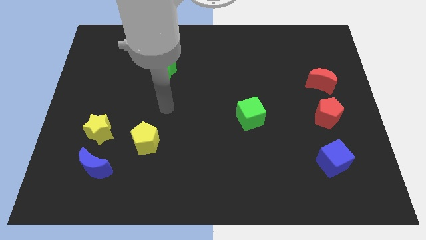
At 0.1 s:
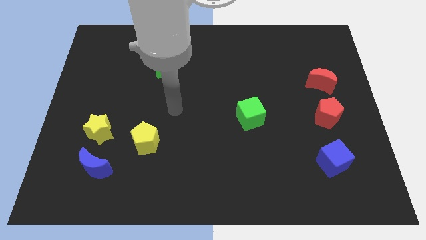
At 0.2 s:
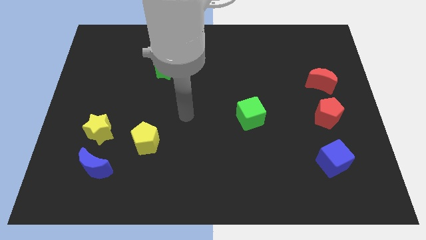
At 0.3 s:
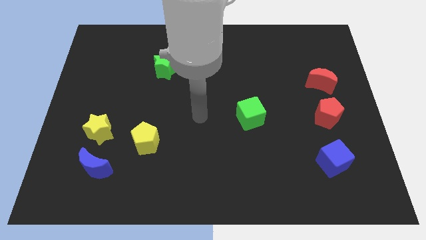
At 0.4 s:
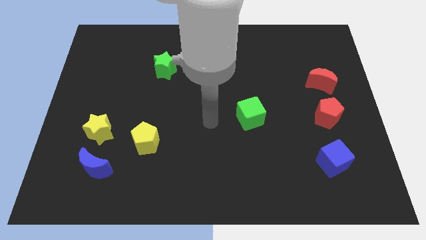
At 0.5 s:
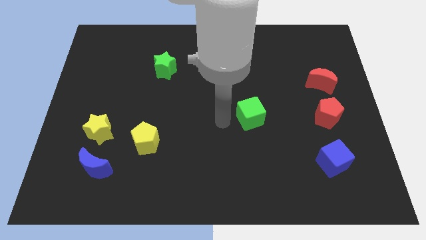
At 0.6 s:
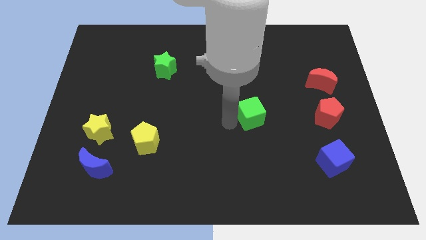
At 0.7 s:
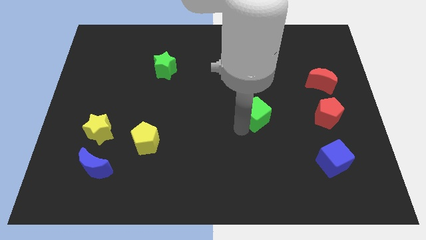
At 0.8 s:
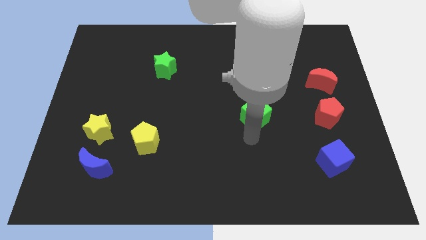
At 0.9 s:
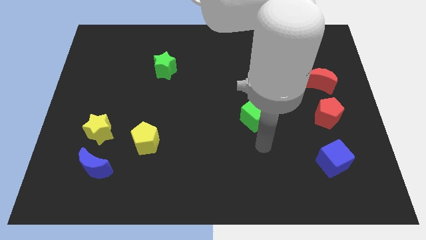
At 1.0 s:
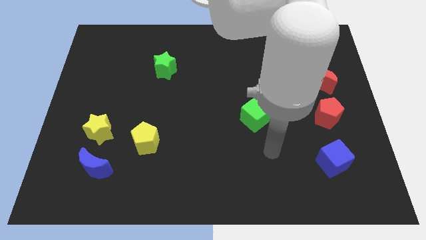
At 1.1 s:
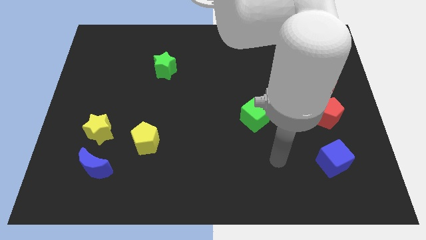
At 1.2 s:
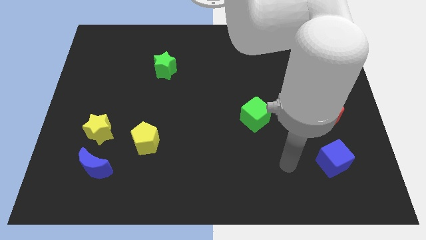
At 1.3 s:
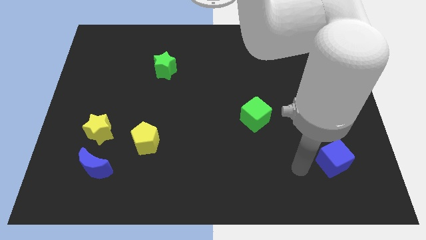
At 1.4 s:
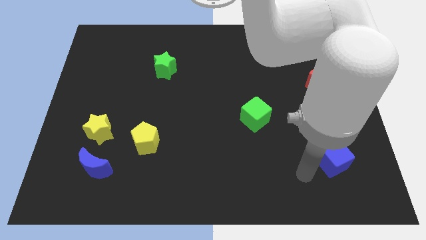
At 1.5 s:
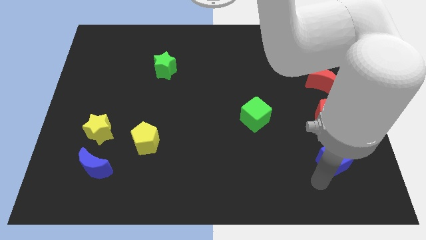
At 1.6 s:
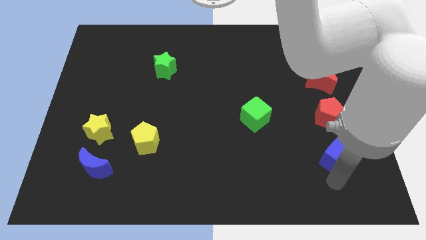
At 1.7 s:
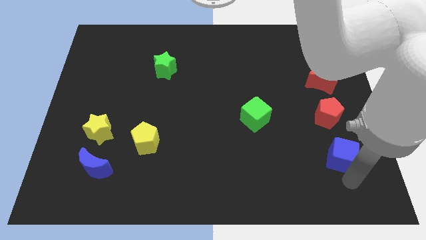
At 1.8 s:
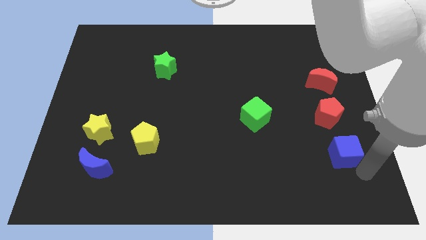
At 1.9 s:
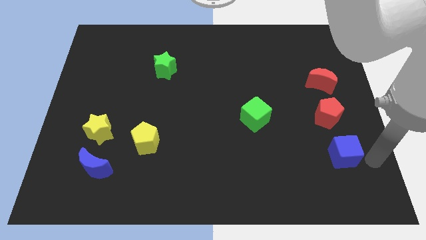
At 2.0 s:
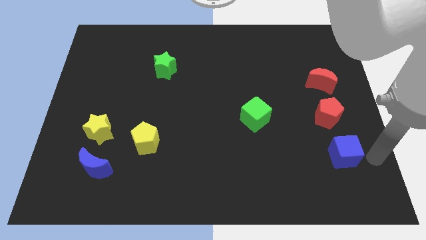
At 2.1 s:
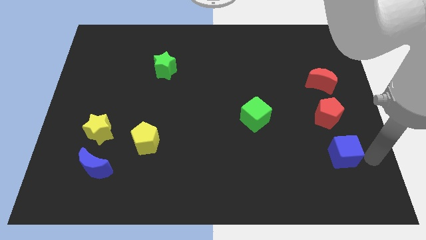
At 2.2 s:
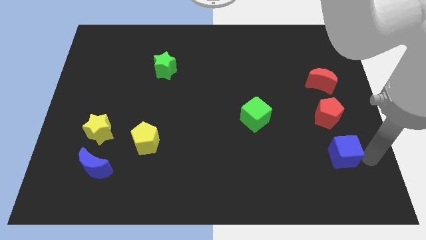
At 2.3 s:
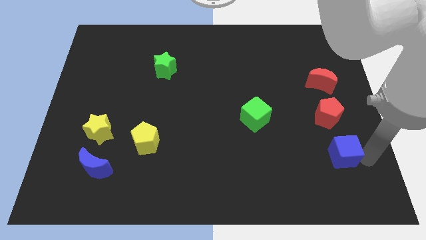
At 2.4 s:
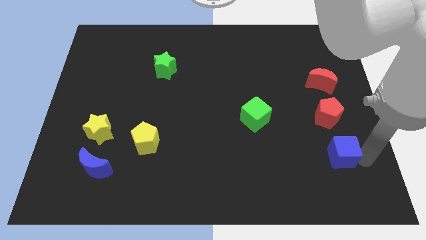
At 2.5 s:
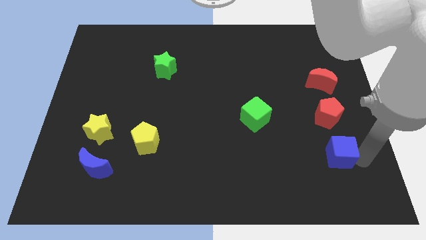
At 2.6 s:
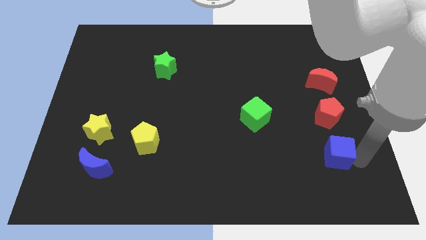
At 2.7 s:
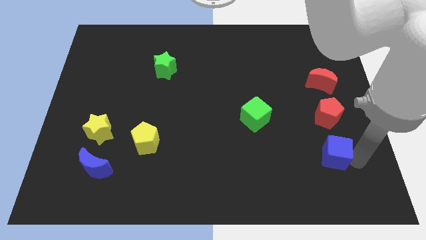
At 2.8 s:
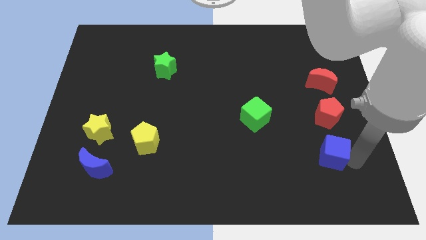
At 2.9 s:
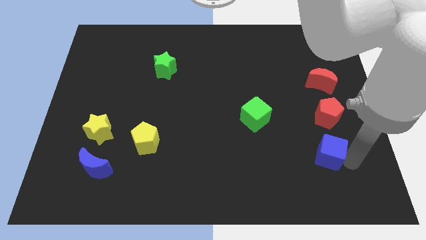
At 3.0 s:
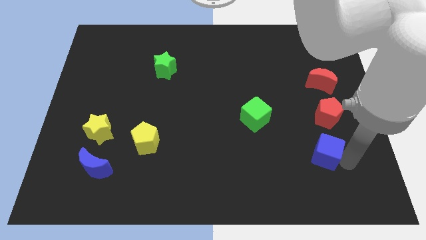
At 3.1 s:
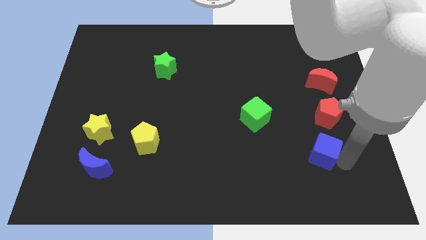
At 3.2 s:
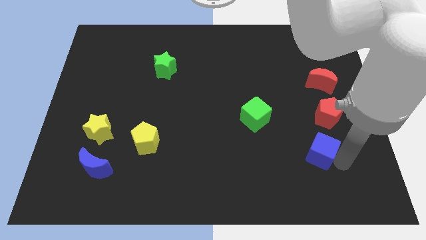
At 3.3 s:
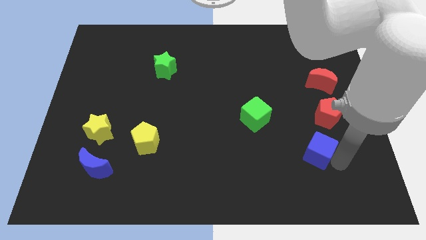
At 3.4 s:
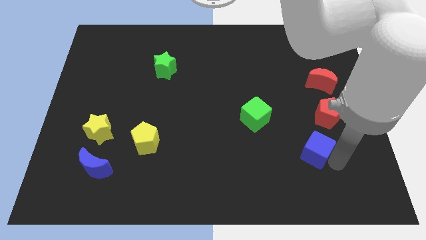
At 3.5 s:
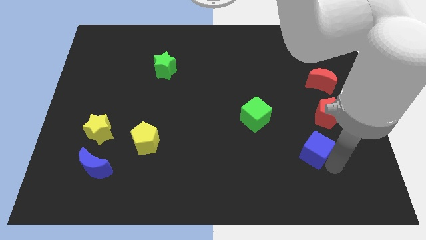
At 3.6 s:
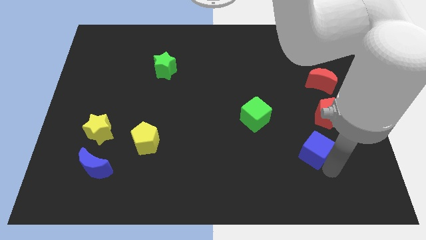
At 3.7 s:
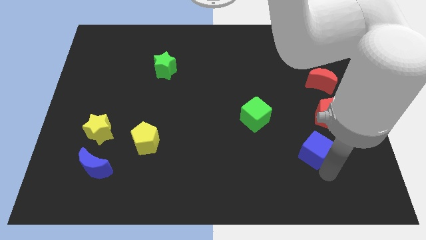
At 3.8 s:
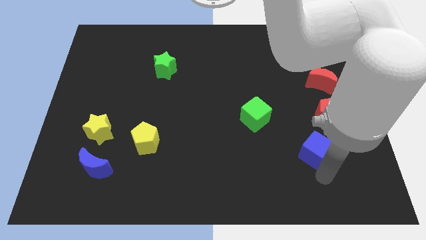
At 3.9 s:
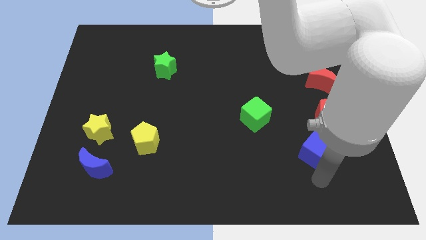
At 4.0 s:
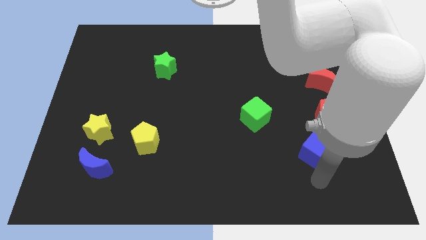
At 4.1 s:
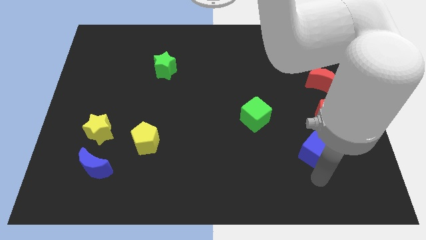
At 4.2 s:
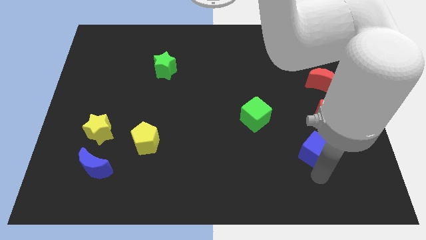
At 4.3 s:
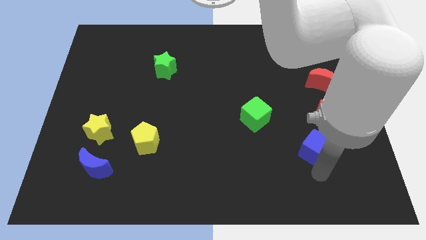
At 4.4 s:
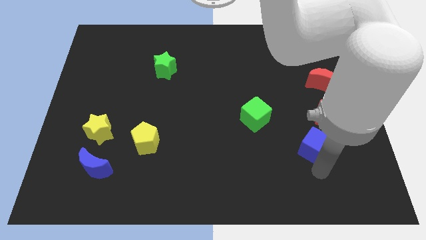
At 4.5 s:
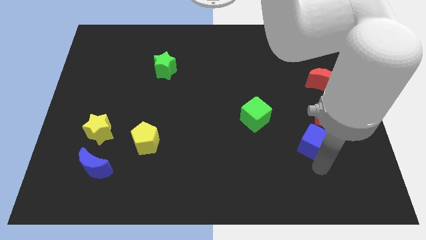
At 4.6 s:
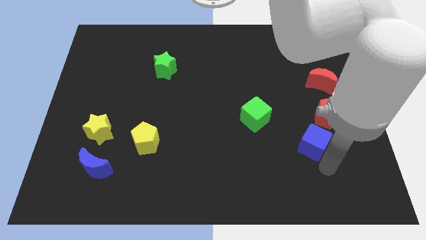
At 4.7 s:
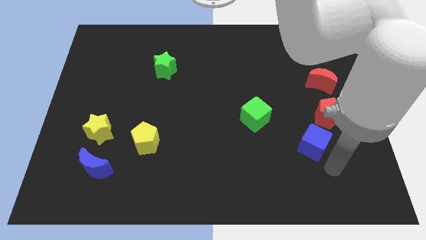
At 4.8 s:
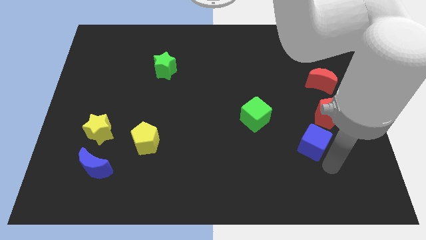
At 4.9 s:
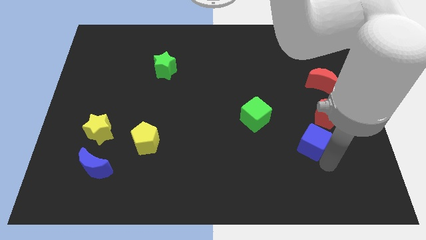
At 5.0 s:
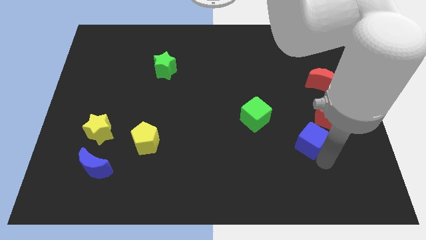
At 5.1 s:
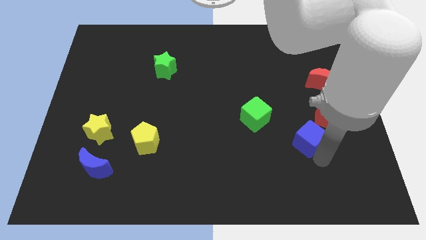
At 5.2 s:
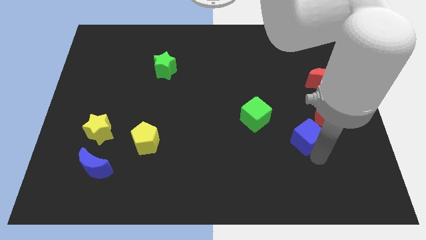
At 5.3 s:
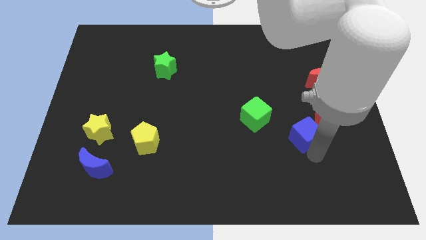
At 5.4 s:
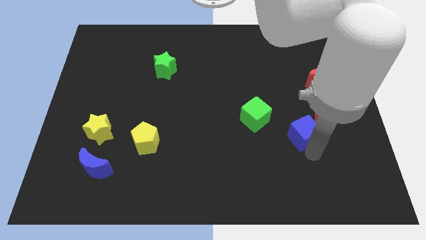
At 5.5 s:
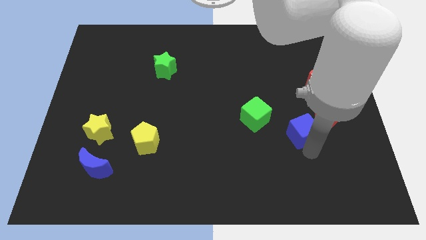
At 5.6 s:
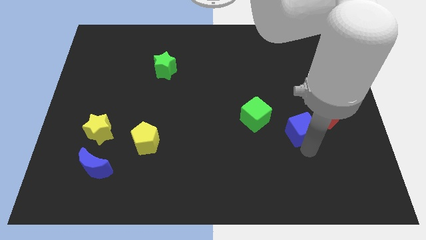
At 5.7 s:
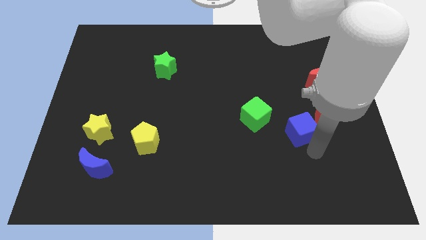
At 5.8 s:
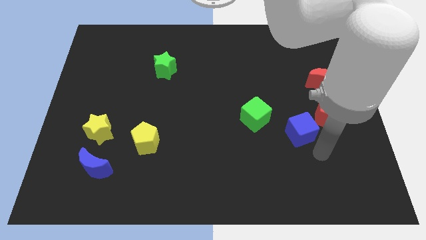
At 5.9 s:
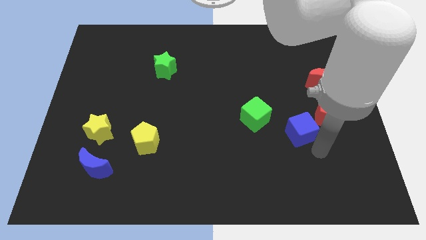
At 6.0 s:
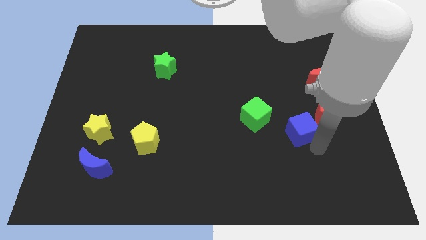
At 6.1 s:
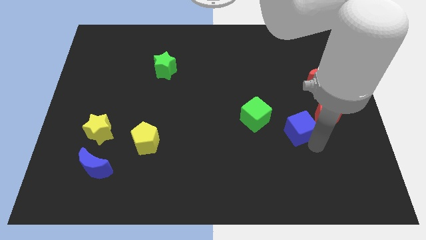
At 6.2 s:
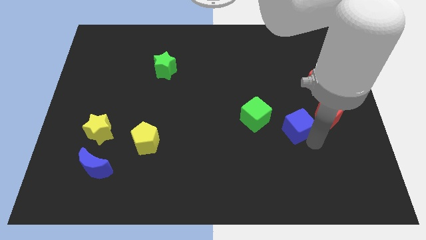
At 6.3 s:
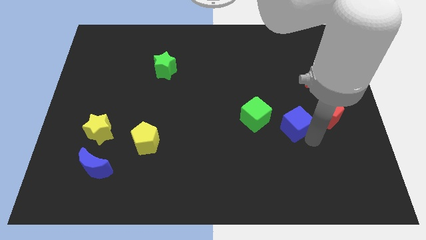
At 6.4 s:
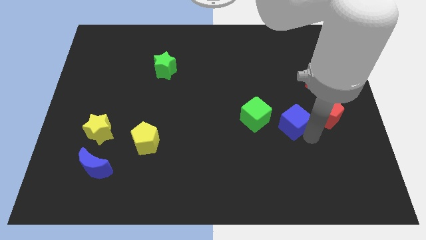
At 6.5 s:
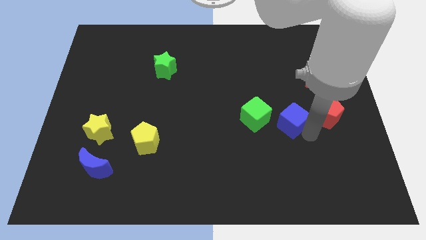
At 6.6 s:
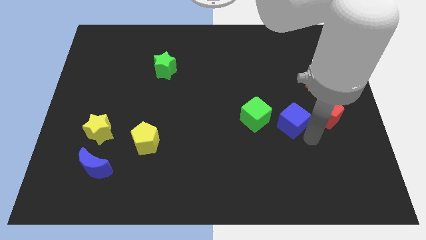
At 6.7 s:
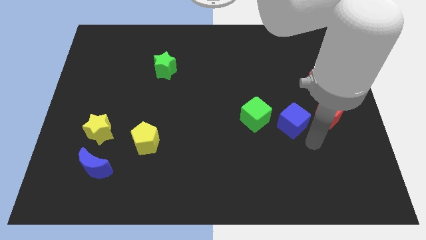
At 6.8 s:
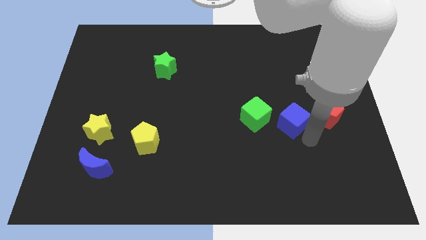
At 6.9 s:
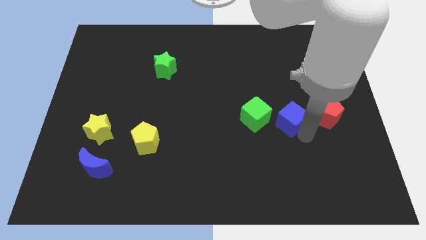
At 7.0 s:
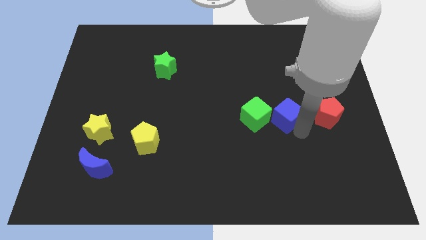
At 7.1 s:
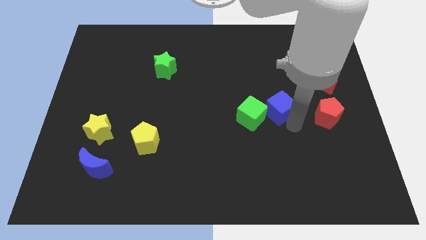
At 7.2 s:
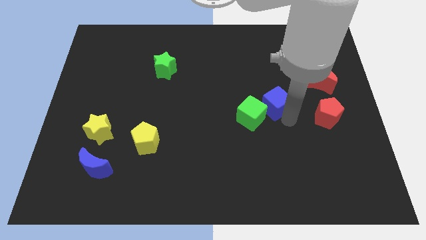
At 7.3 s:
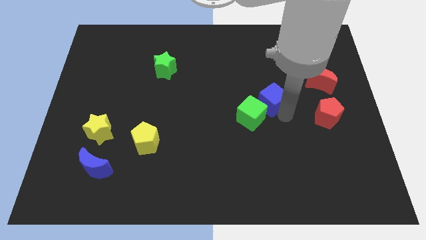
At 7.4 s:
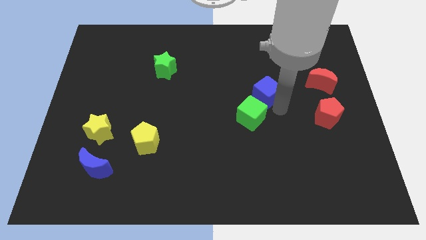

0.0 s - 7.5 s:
push the blue cube up and left

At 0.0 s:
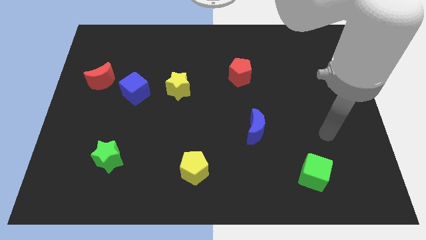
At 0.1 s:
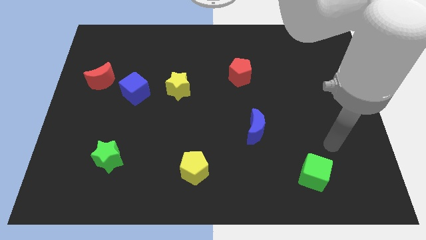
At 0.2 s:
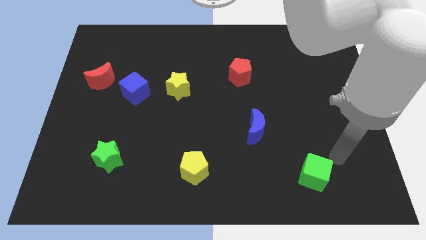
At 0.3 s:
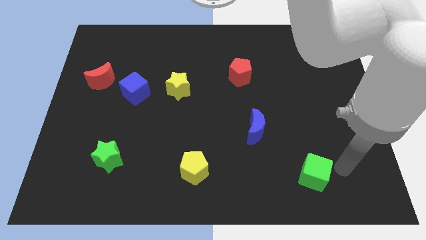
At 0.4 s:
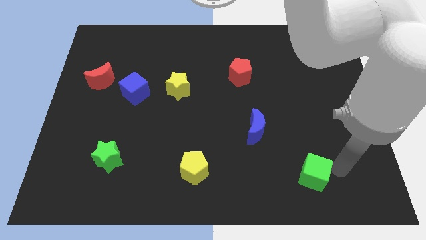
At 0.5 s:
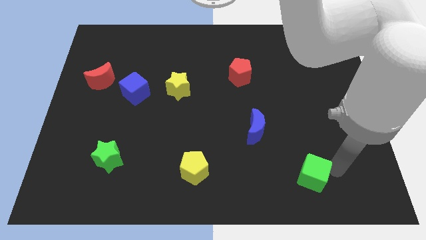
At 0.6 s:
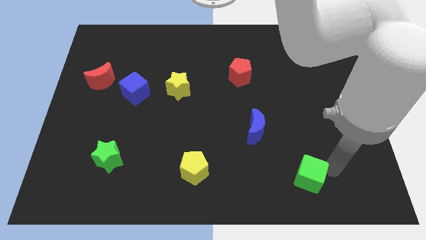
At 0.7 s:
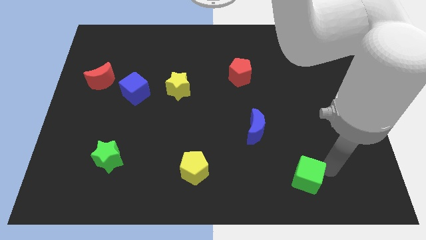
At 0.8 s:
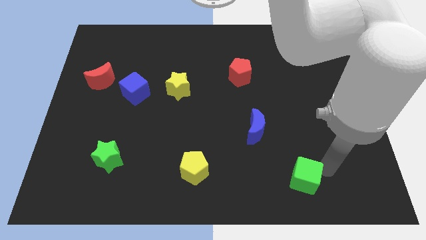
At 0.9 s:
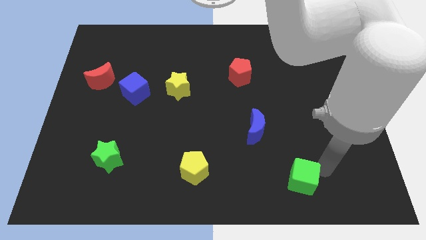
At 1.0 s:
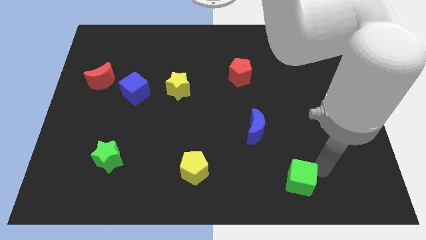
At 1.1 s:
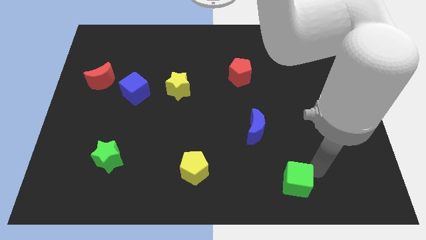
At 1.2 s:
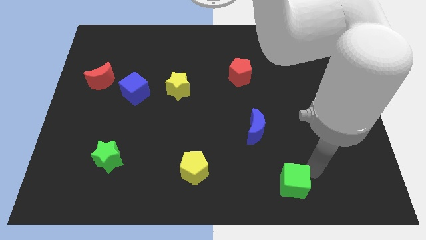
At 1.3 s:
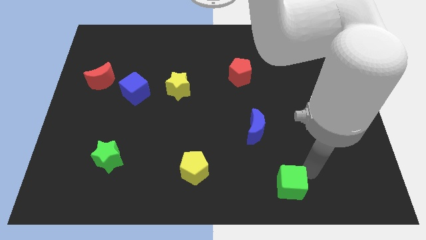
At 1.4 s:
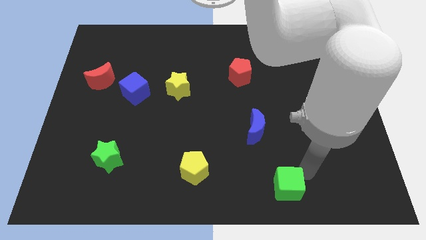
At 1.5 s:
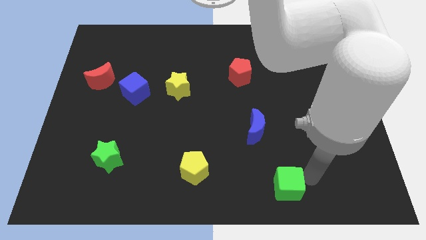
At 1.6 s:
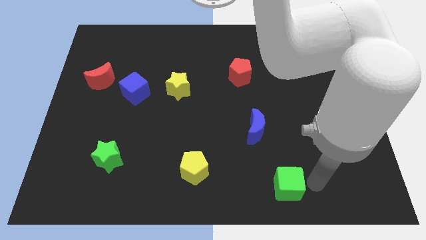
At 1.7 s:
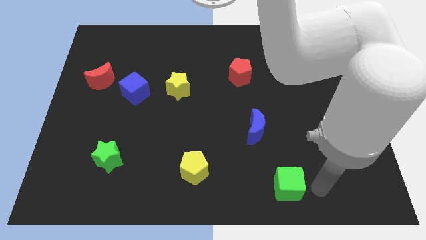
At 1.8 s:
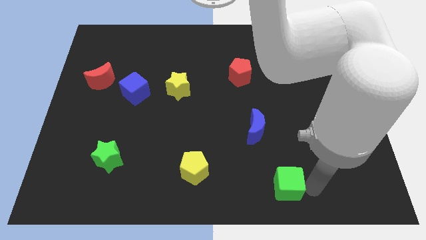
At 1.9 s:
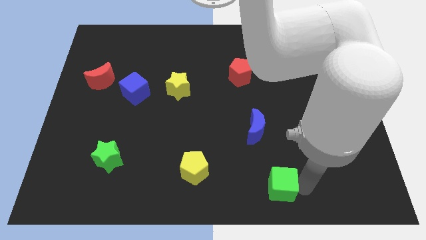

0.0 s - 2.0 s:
slightly slide the green cube left
